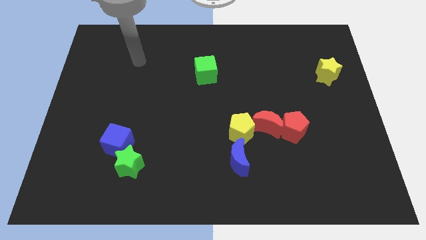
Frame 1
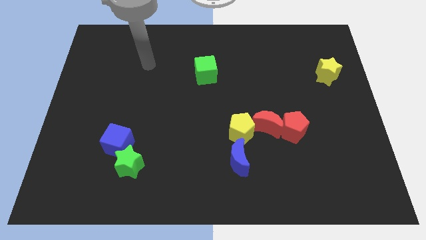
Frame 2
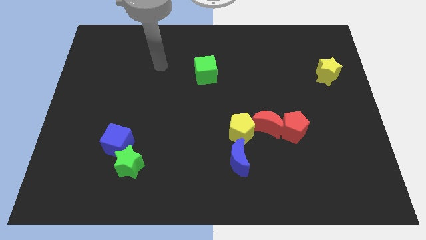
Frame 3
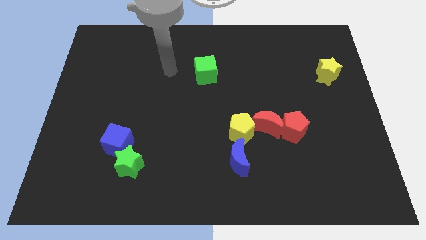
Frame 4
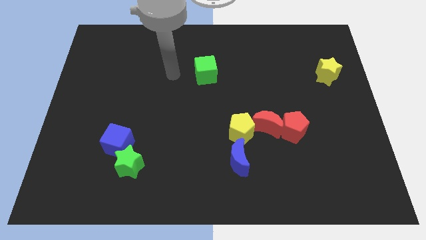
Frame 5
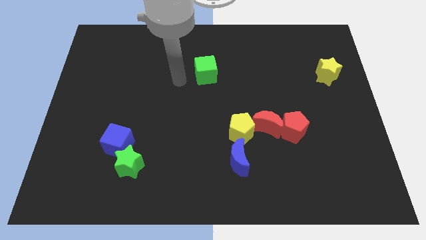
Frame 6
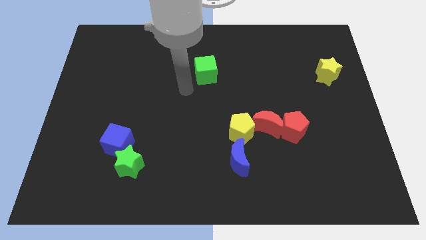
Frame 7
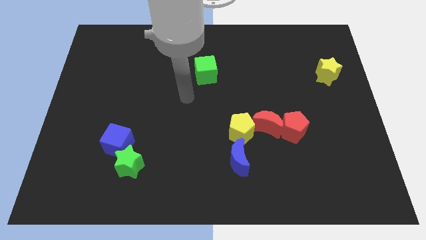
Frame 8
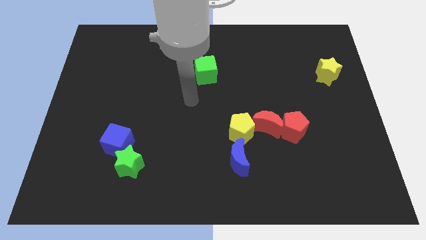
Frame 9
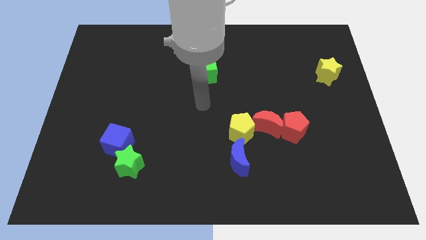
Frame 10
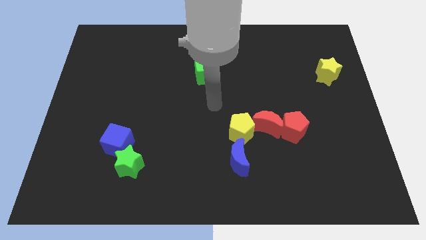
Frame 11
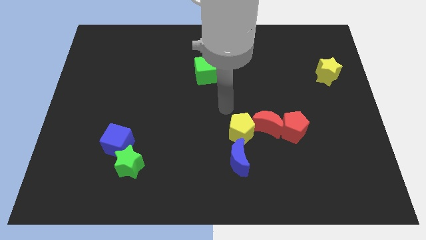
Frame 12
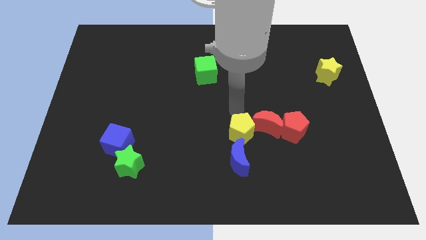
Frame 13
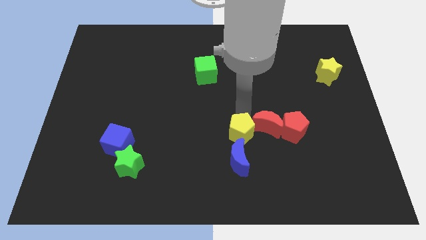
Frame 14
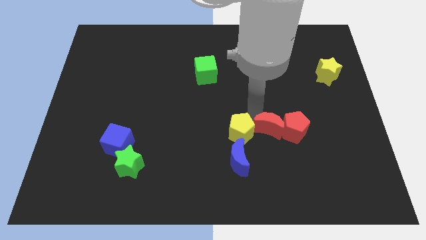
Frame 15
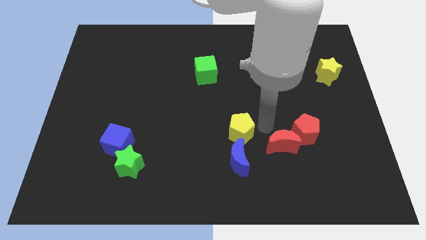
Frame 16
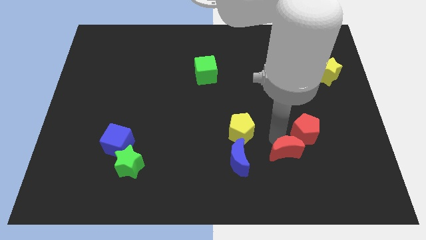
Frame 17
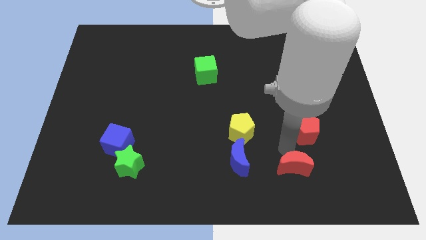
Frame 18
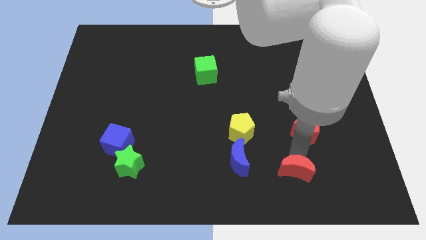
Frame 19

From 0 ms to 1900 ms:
separate the red pentagon from the red moon

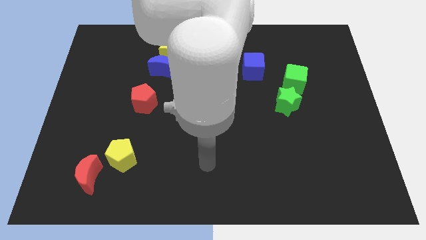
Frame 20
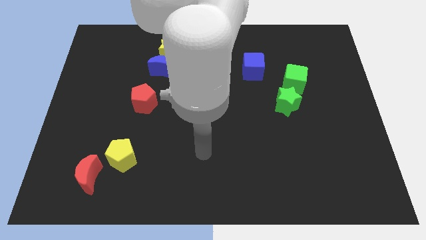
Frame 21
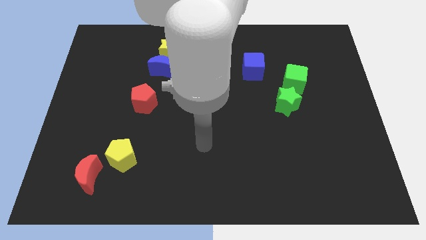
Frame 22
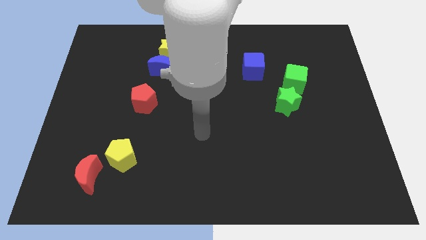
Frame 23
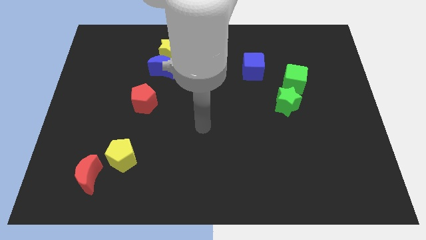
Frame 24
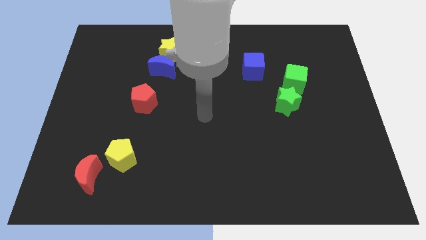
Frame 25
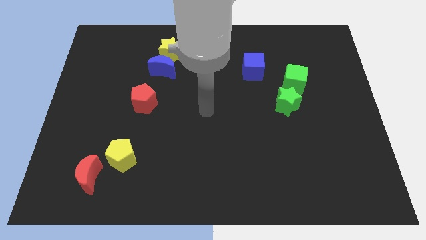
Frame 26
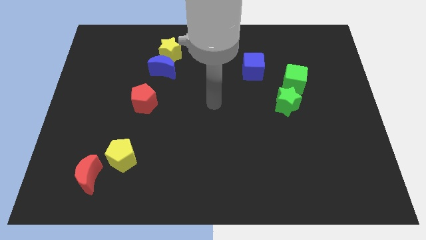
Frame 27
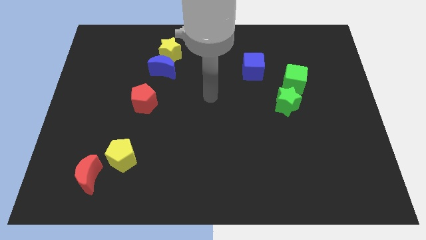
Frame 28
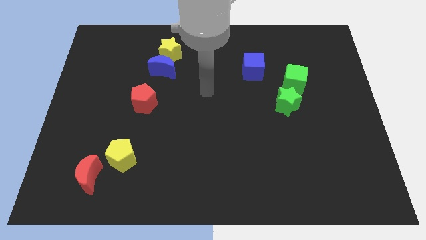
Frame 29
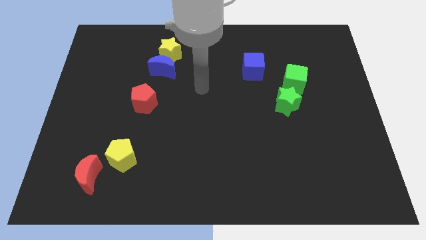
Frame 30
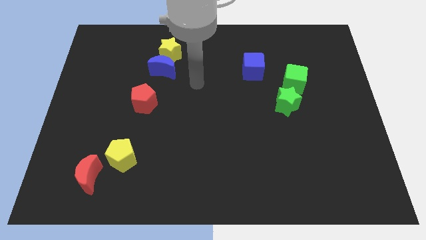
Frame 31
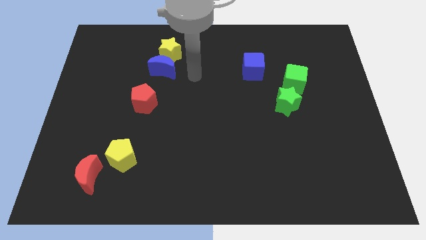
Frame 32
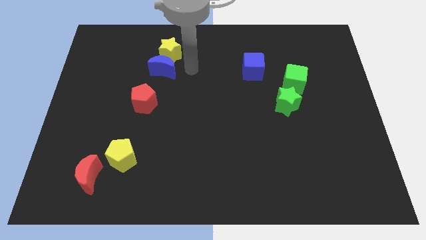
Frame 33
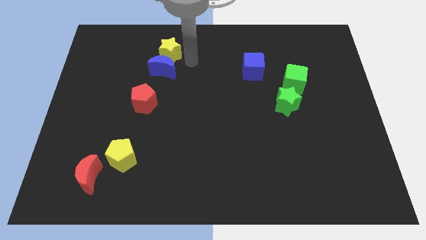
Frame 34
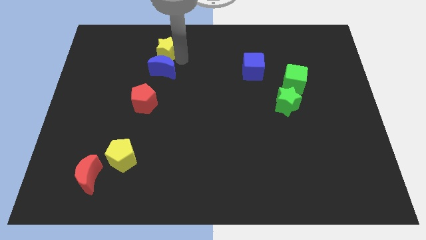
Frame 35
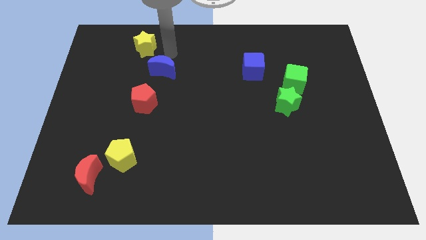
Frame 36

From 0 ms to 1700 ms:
separate the blue moon from the yellow star

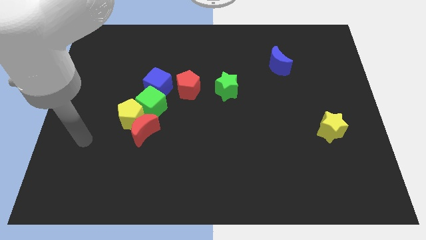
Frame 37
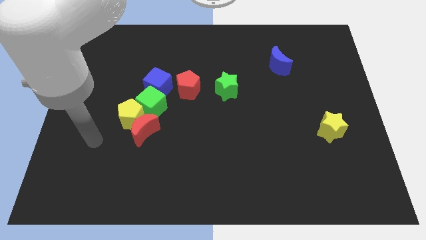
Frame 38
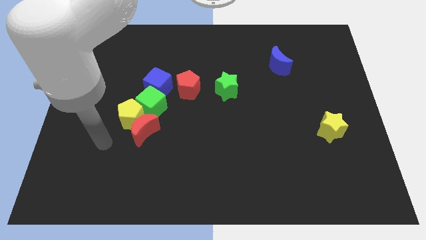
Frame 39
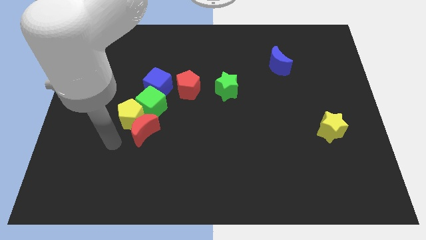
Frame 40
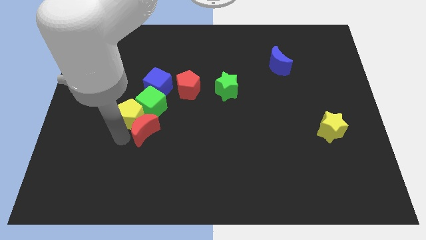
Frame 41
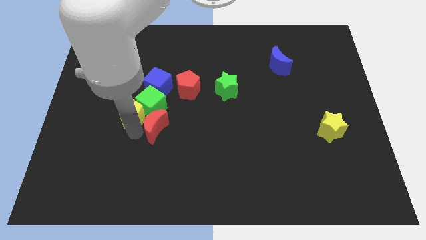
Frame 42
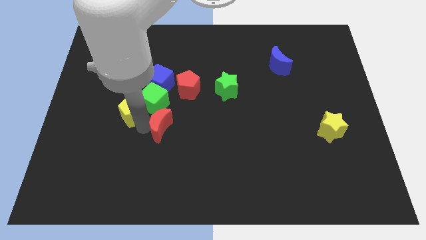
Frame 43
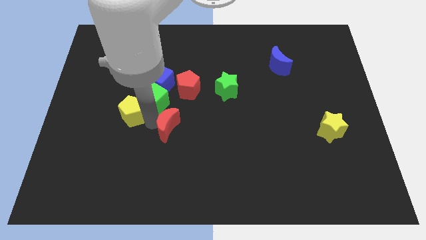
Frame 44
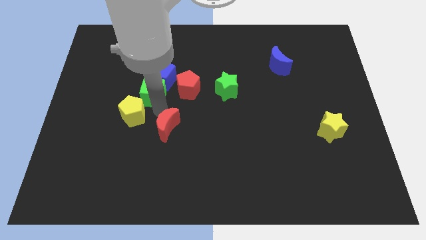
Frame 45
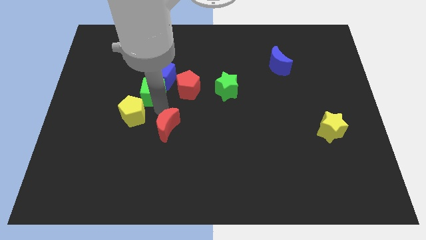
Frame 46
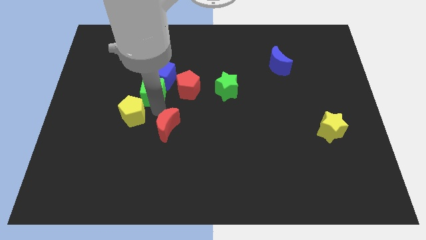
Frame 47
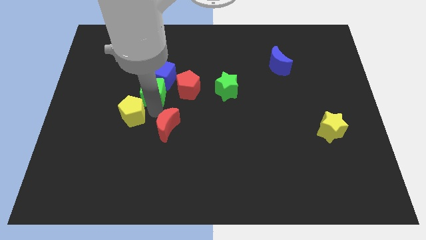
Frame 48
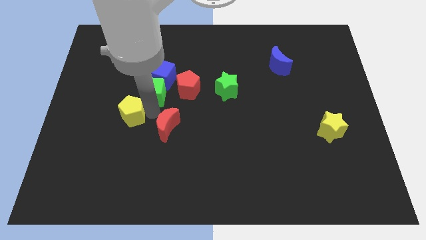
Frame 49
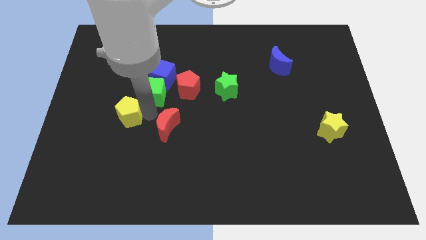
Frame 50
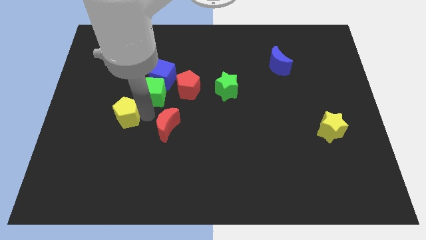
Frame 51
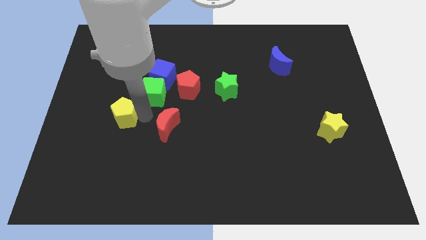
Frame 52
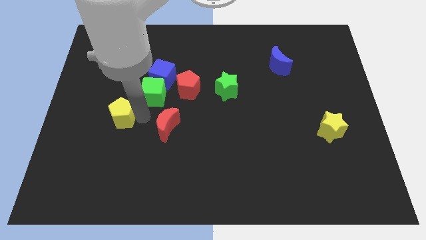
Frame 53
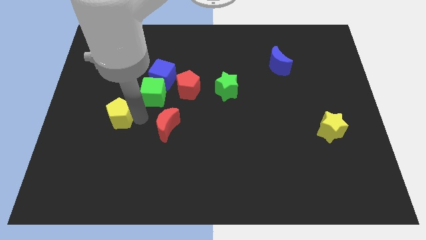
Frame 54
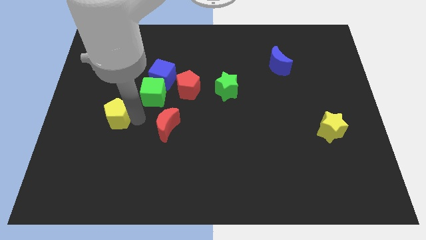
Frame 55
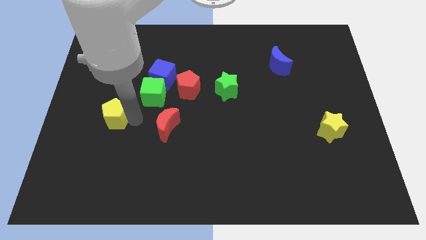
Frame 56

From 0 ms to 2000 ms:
pull the yellow pentagon apart from the red moon and green cube

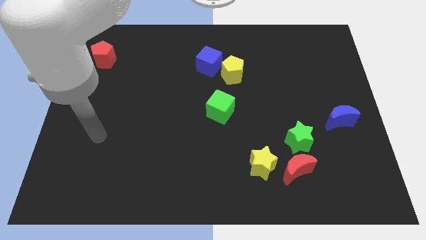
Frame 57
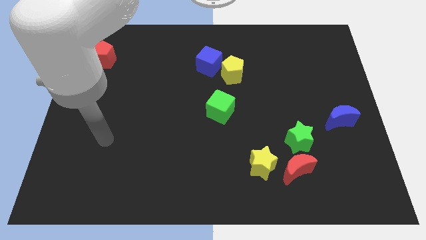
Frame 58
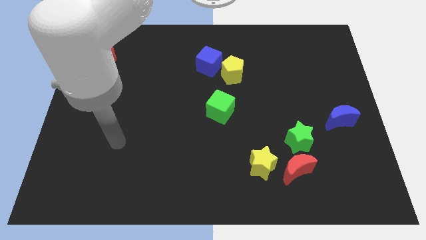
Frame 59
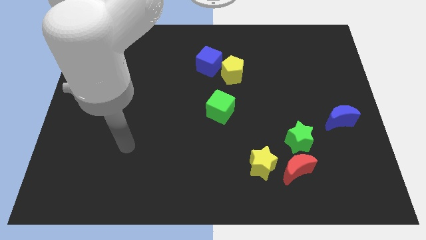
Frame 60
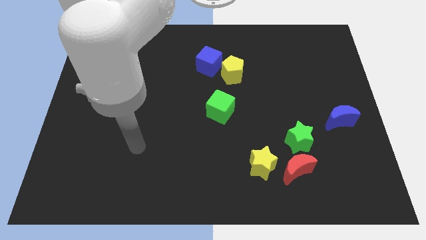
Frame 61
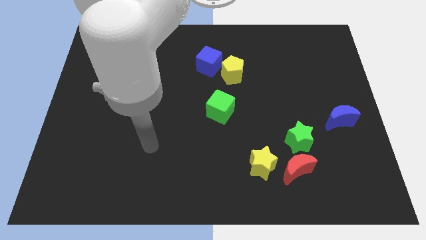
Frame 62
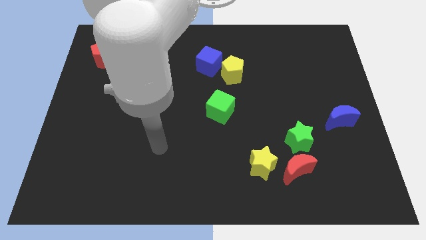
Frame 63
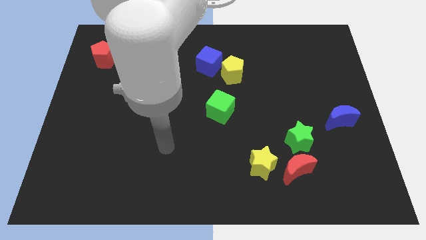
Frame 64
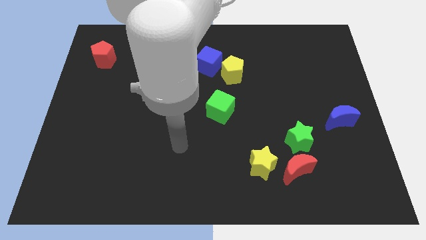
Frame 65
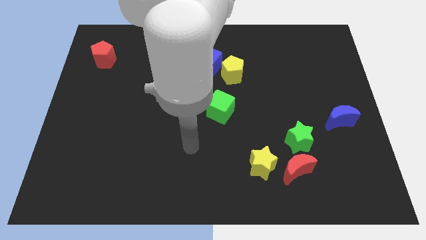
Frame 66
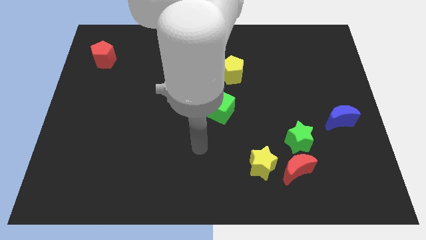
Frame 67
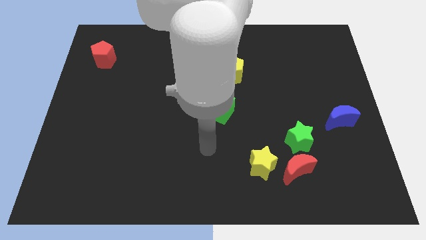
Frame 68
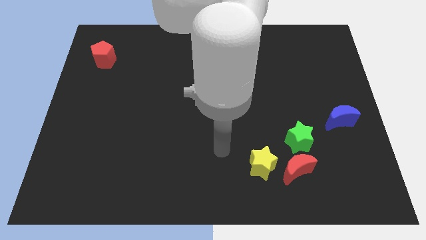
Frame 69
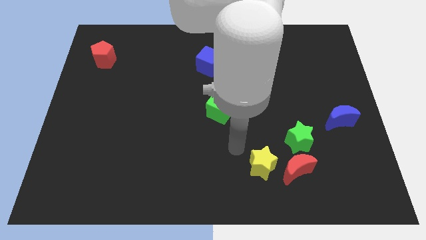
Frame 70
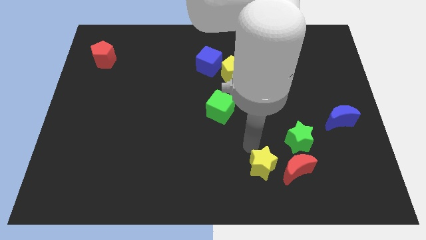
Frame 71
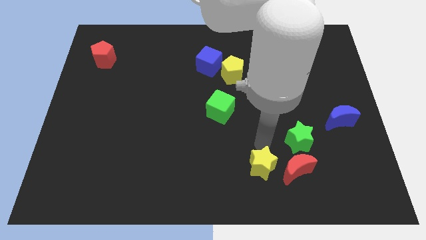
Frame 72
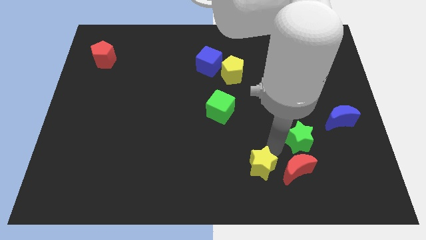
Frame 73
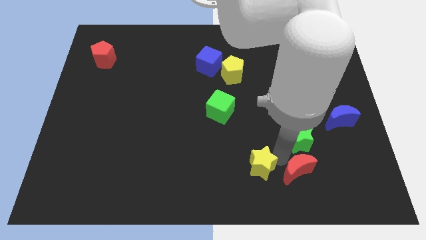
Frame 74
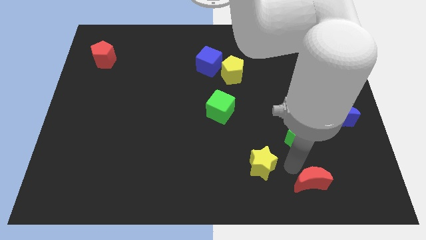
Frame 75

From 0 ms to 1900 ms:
separate the yellow star from the red moon

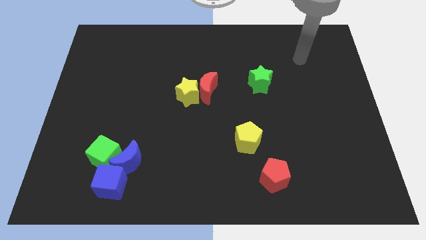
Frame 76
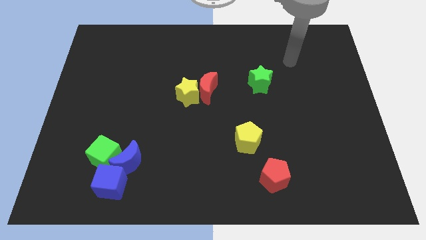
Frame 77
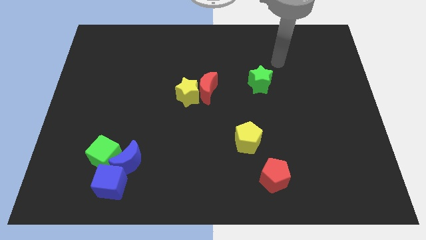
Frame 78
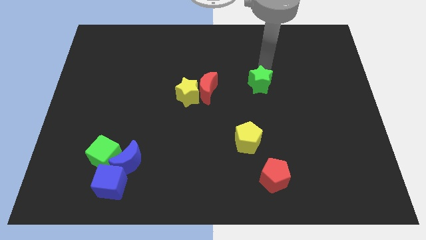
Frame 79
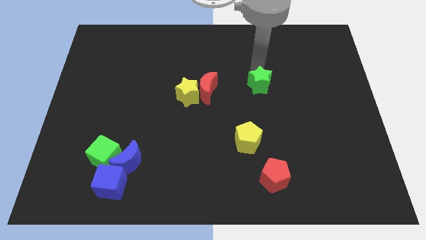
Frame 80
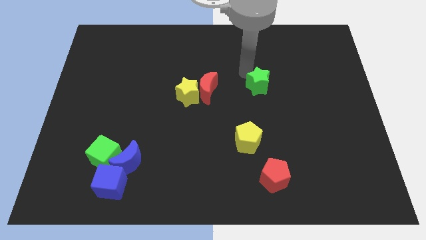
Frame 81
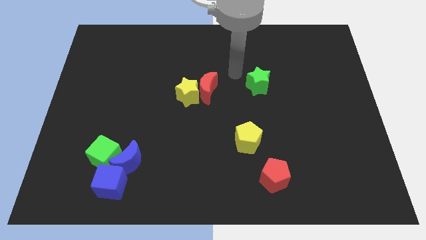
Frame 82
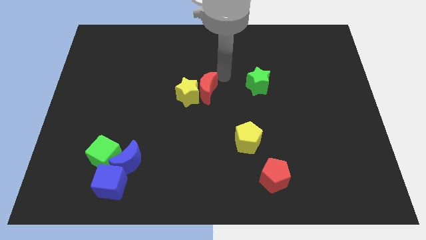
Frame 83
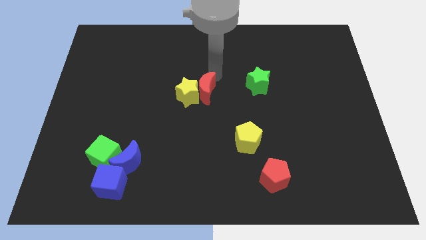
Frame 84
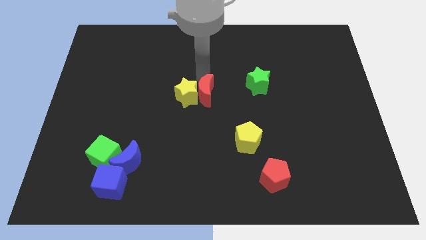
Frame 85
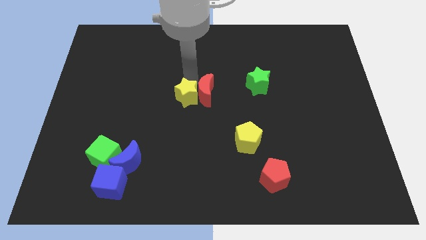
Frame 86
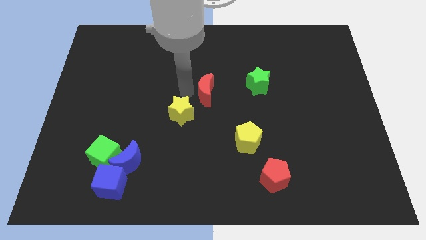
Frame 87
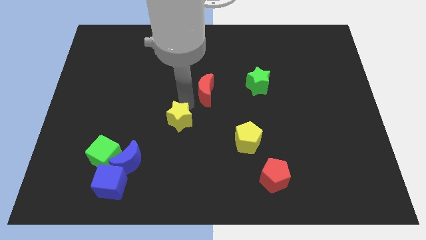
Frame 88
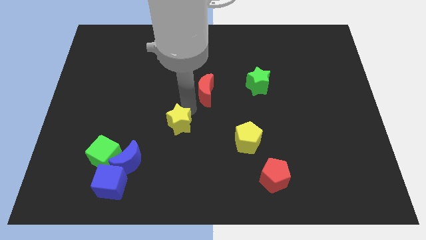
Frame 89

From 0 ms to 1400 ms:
pull the red moon apart from the yellow star

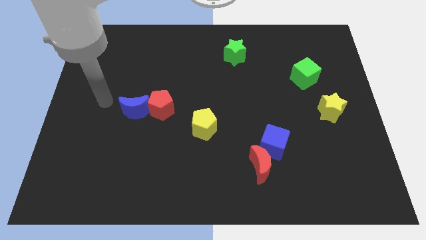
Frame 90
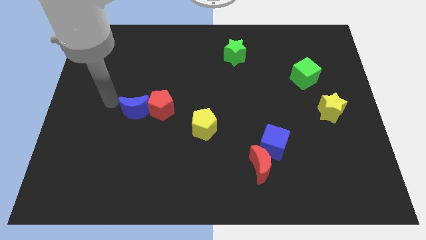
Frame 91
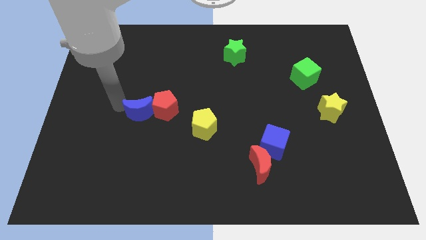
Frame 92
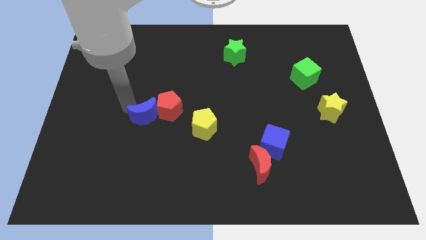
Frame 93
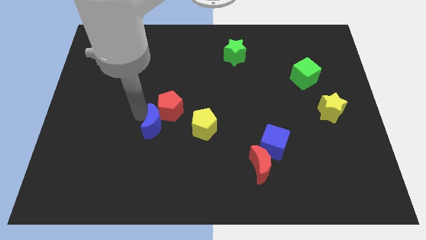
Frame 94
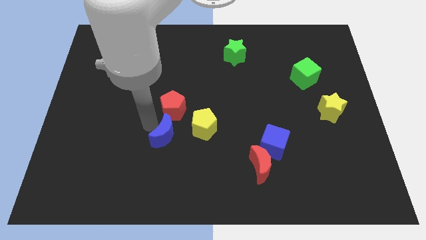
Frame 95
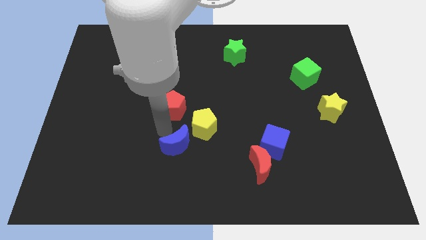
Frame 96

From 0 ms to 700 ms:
pull the red pentagon apart from the blue moon
